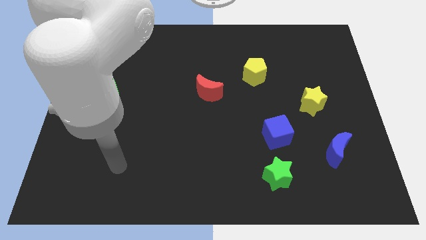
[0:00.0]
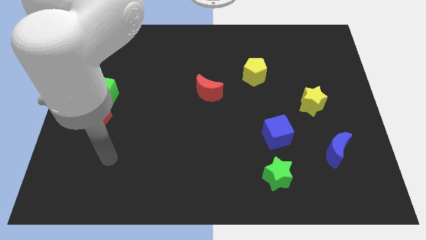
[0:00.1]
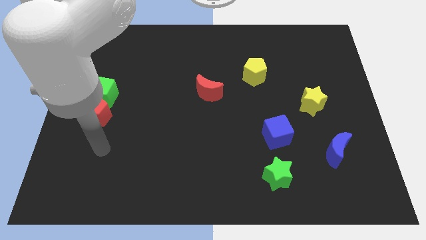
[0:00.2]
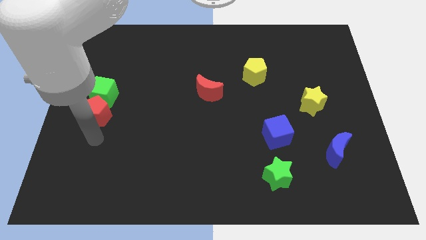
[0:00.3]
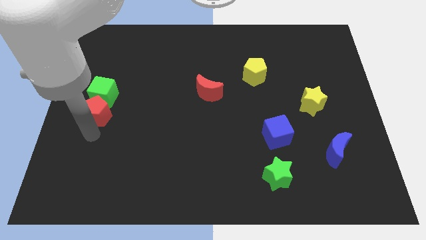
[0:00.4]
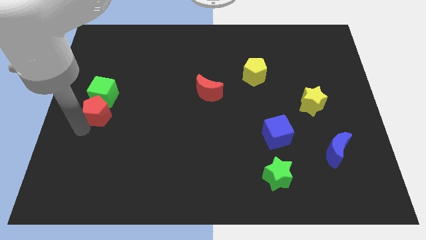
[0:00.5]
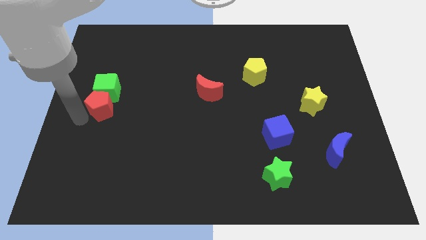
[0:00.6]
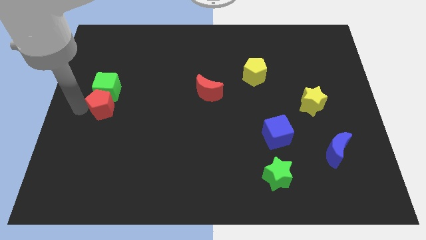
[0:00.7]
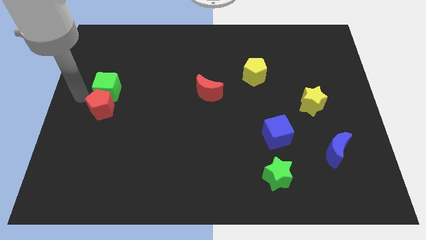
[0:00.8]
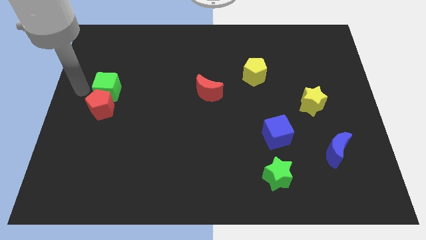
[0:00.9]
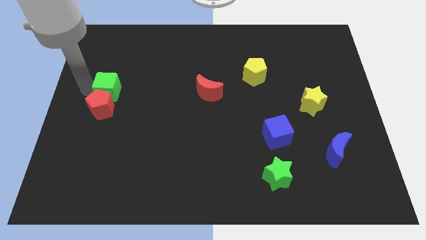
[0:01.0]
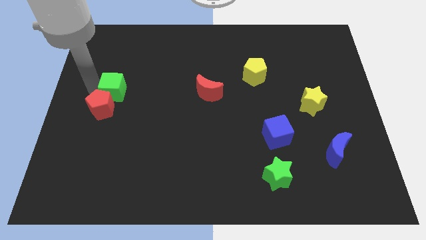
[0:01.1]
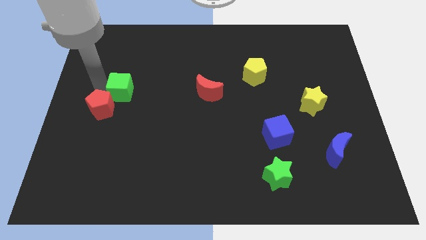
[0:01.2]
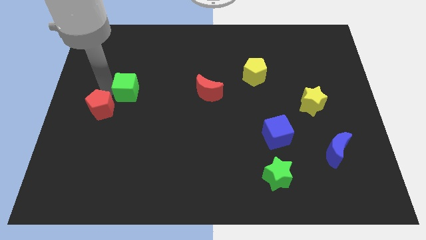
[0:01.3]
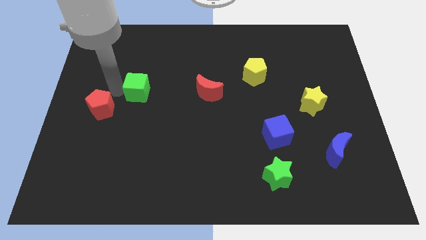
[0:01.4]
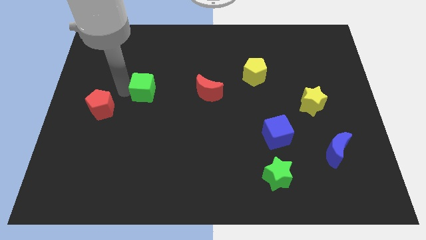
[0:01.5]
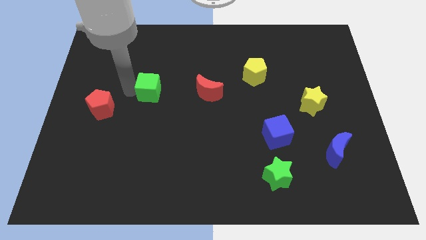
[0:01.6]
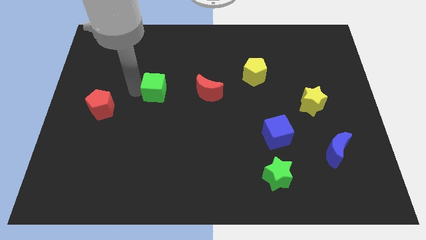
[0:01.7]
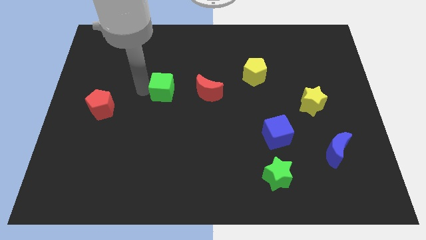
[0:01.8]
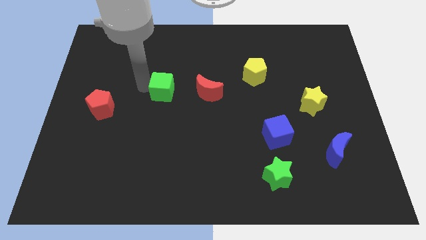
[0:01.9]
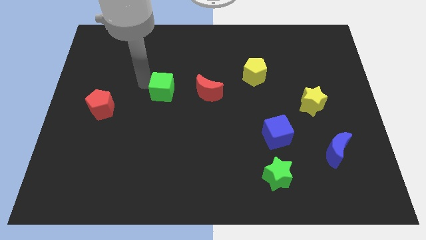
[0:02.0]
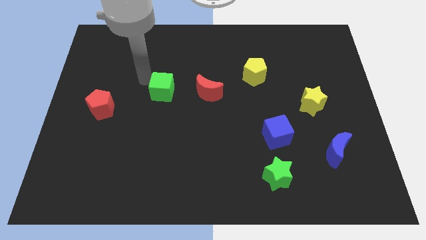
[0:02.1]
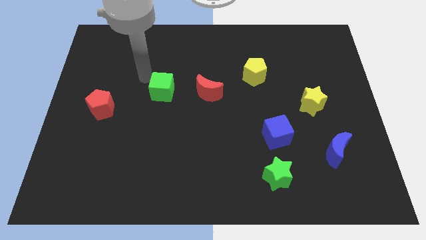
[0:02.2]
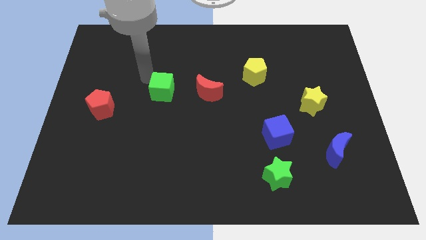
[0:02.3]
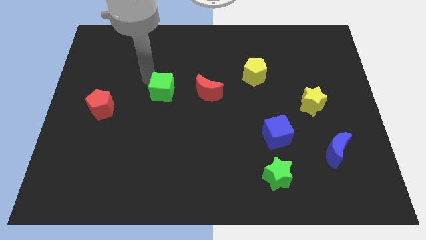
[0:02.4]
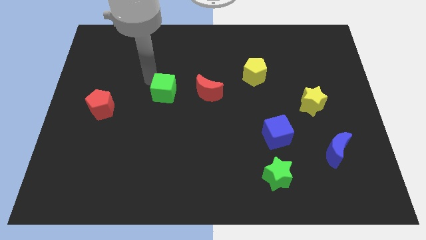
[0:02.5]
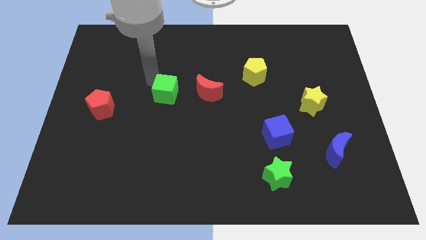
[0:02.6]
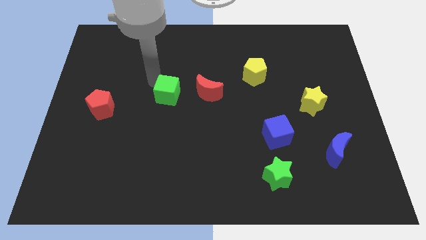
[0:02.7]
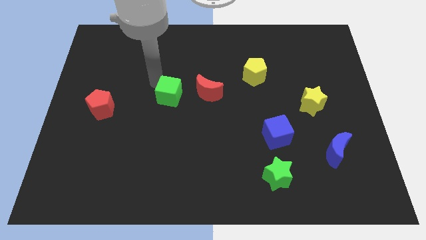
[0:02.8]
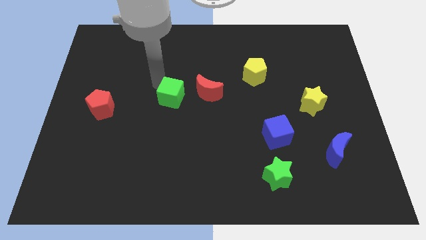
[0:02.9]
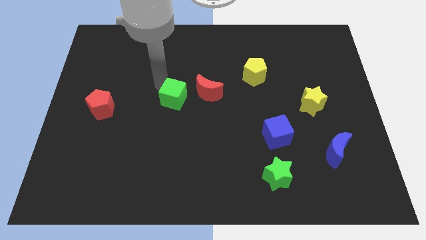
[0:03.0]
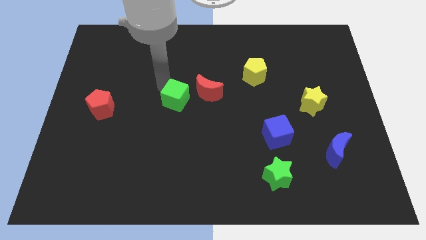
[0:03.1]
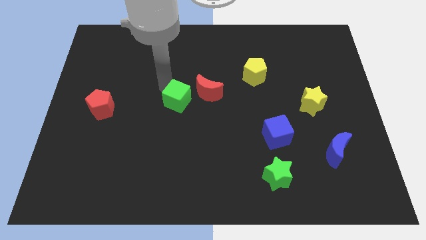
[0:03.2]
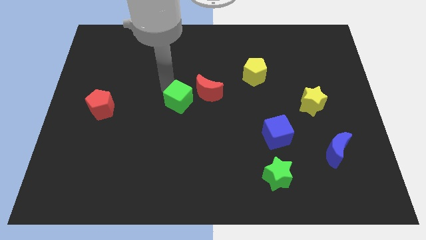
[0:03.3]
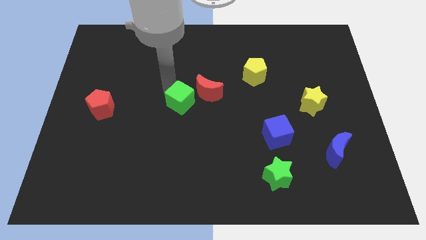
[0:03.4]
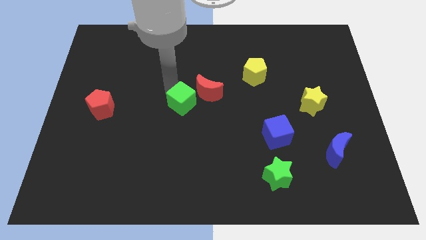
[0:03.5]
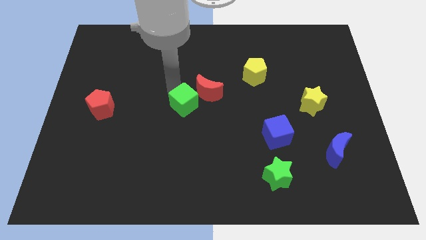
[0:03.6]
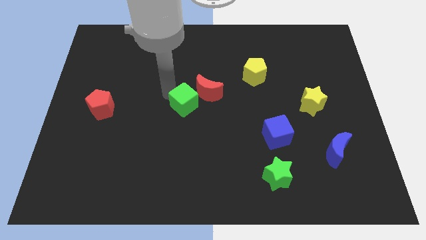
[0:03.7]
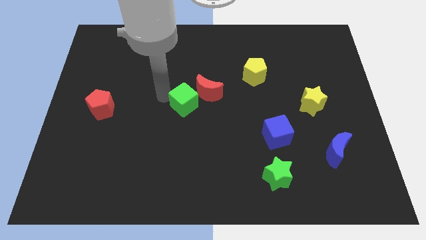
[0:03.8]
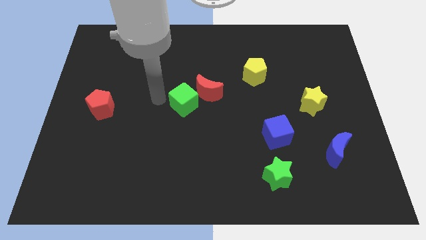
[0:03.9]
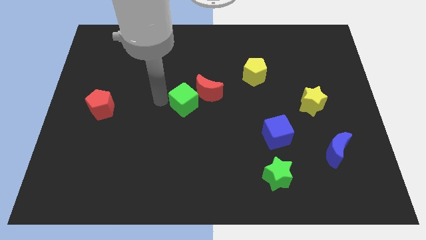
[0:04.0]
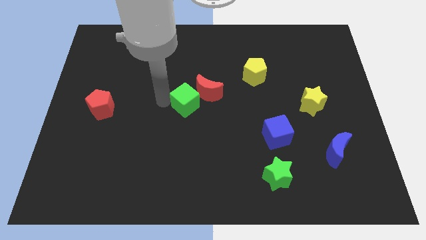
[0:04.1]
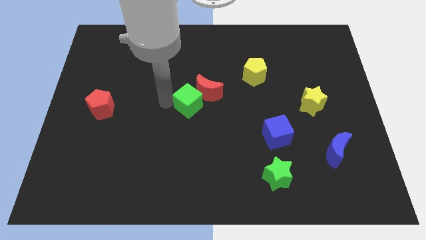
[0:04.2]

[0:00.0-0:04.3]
move the green cube right

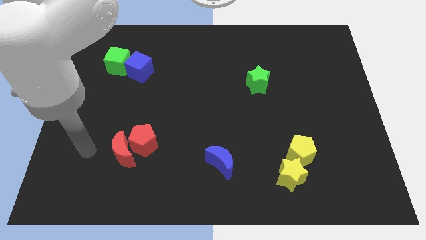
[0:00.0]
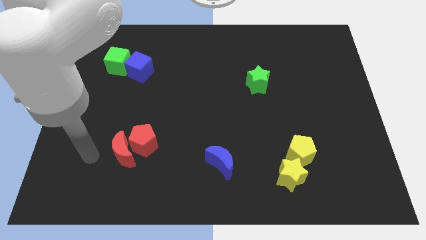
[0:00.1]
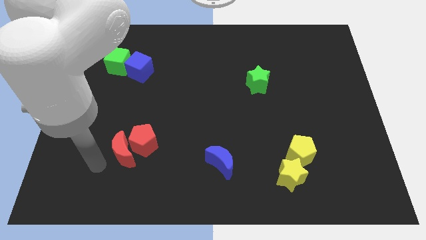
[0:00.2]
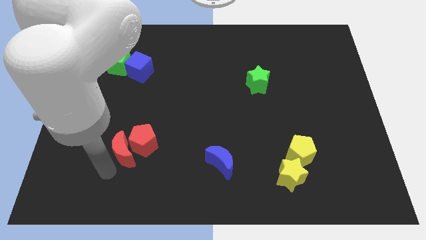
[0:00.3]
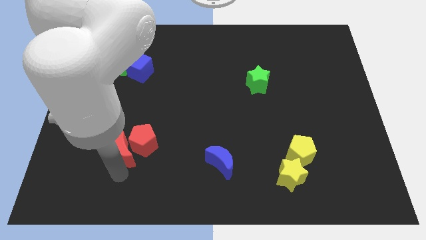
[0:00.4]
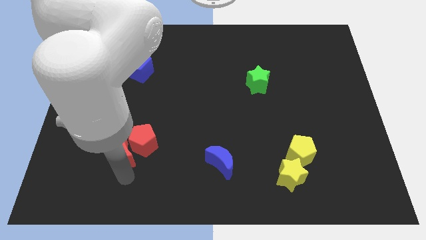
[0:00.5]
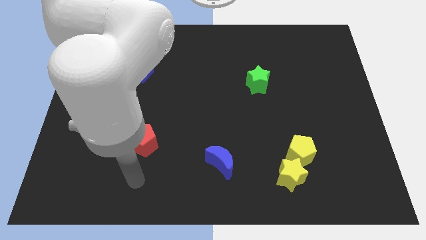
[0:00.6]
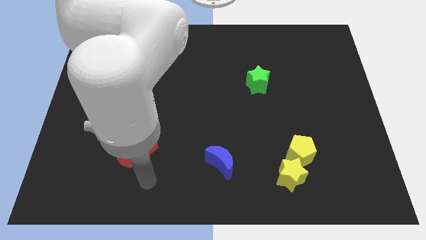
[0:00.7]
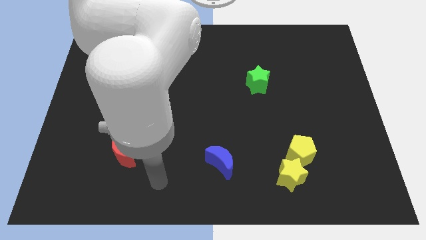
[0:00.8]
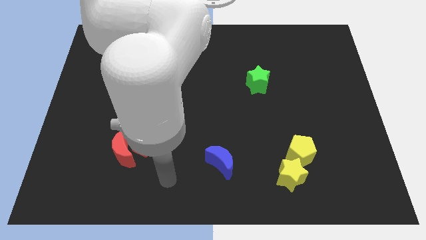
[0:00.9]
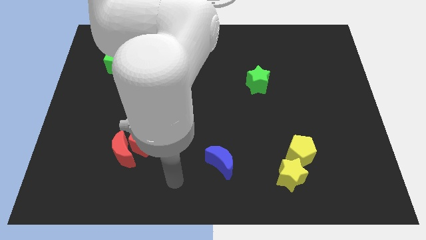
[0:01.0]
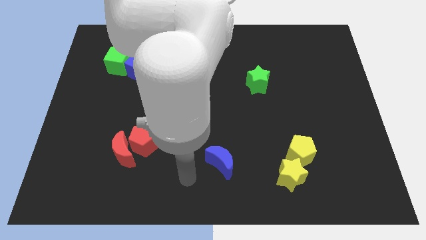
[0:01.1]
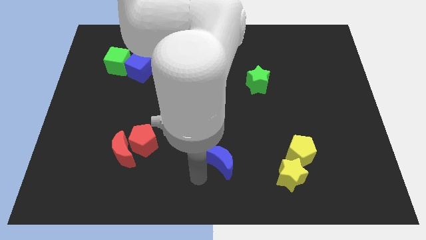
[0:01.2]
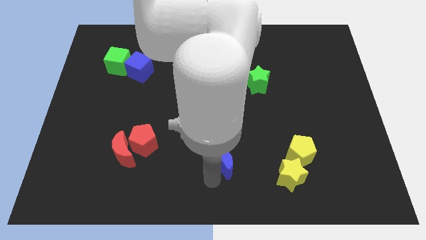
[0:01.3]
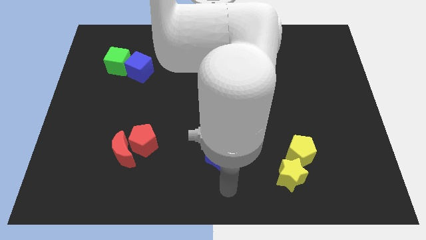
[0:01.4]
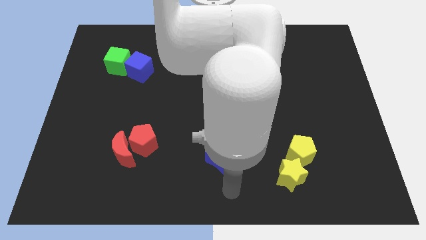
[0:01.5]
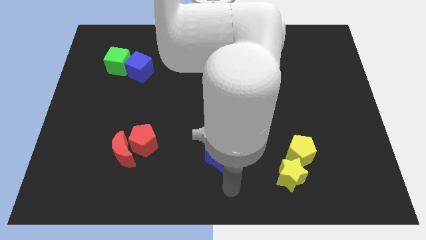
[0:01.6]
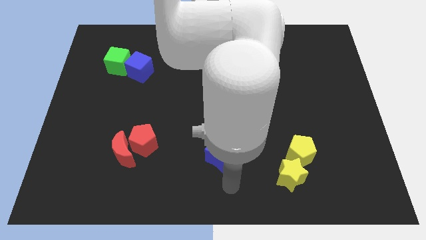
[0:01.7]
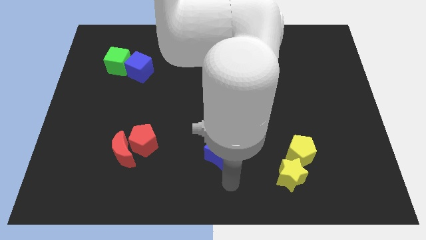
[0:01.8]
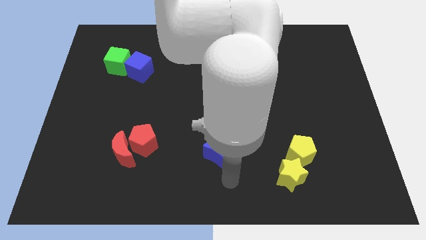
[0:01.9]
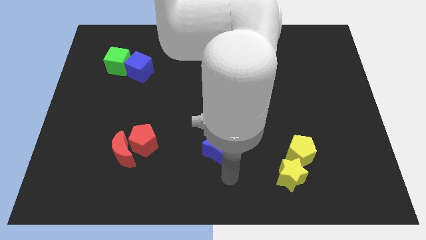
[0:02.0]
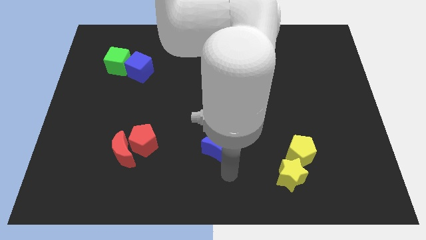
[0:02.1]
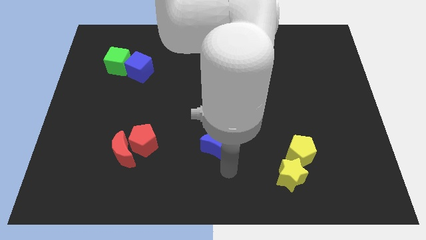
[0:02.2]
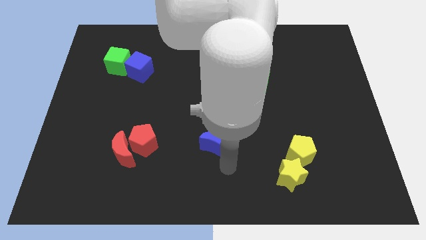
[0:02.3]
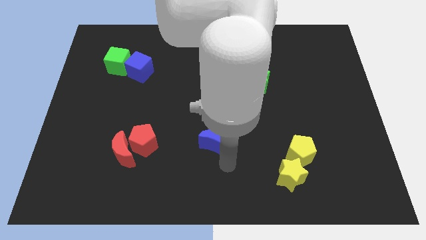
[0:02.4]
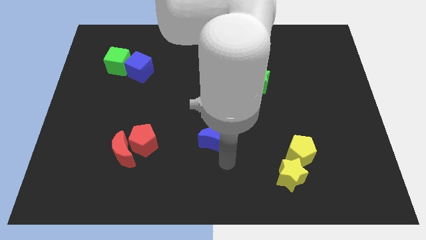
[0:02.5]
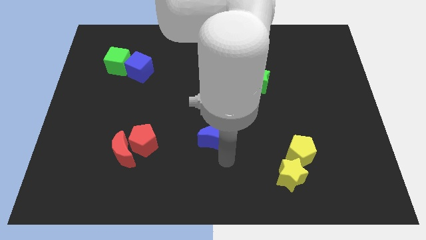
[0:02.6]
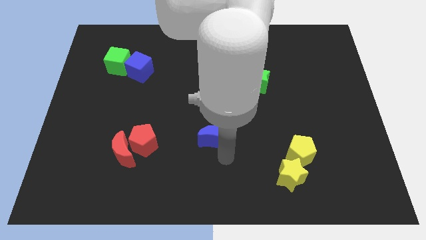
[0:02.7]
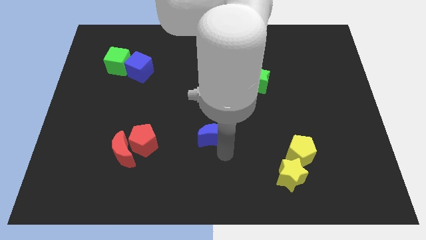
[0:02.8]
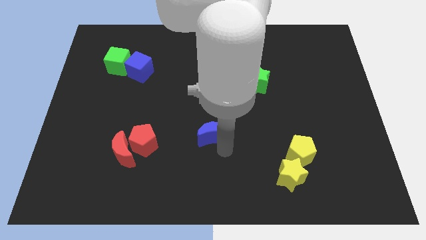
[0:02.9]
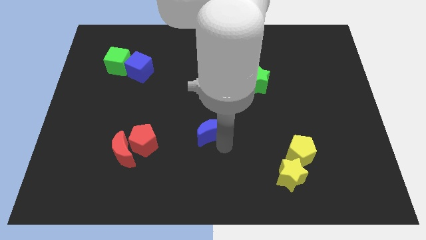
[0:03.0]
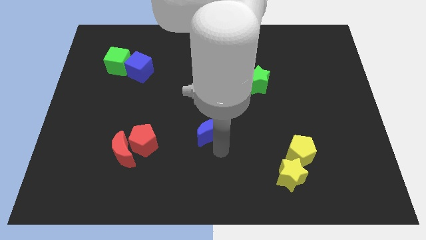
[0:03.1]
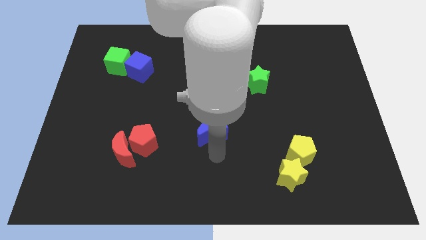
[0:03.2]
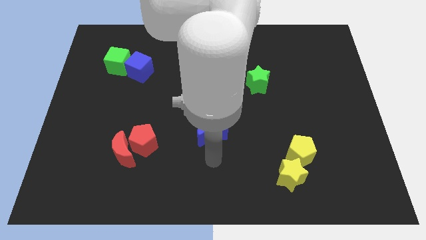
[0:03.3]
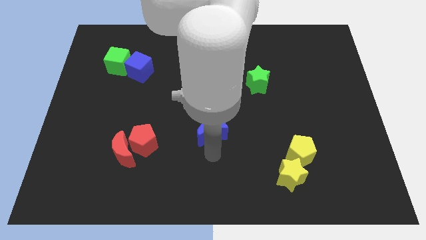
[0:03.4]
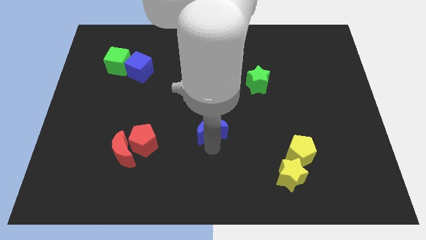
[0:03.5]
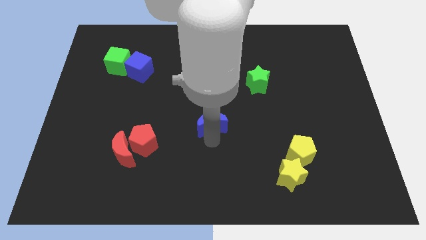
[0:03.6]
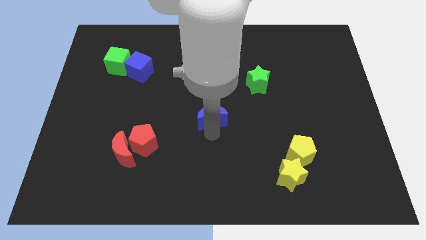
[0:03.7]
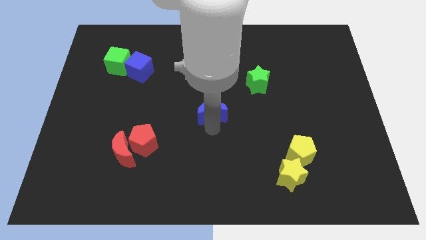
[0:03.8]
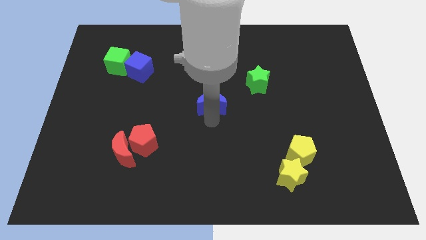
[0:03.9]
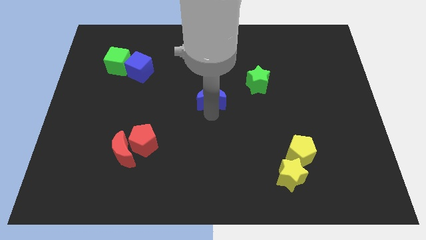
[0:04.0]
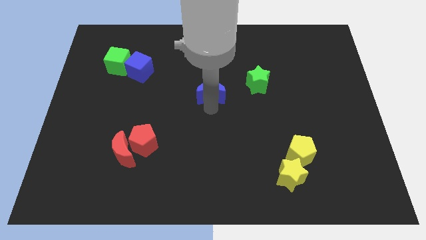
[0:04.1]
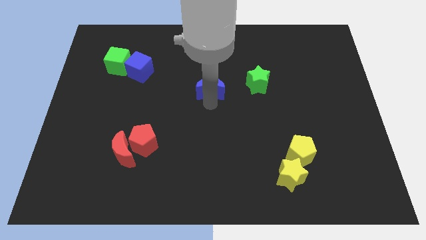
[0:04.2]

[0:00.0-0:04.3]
push the blue moon up
